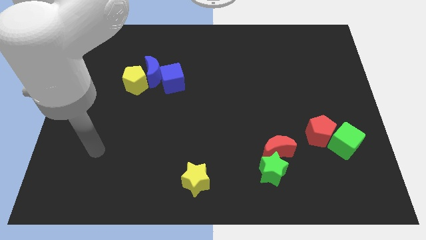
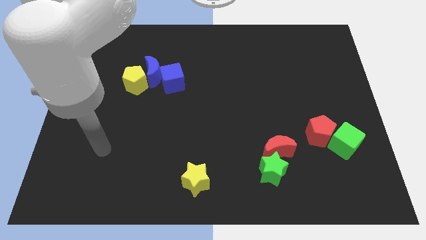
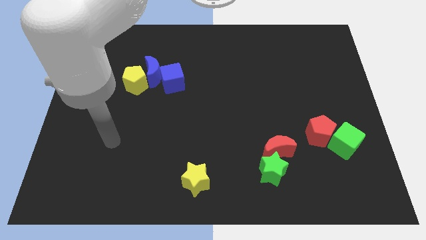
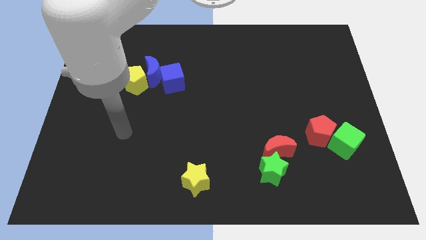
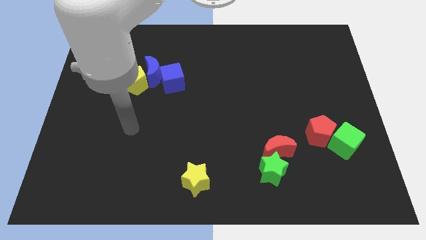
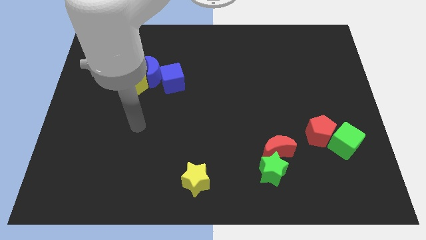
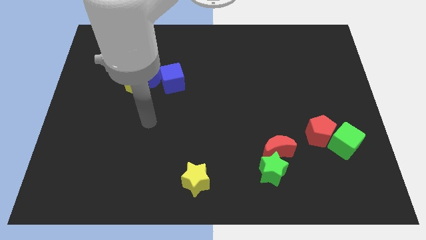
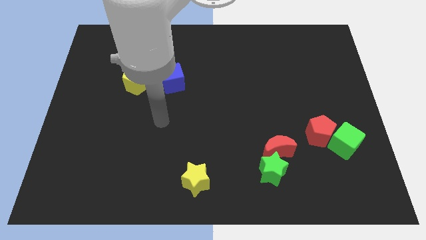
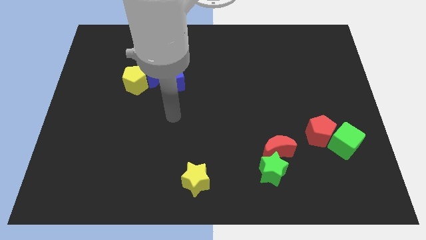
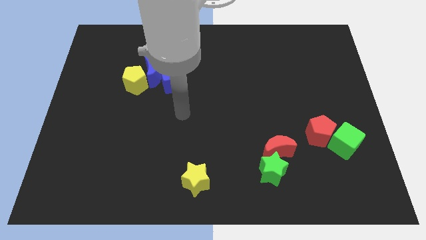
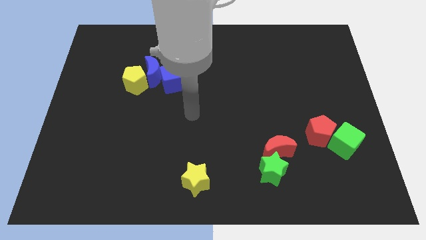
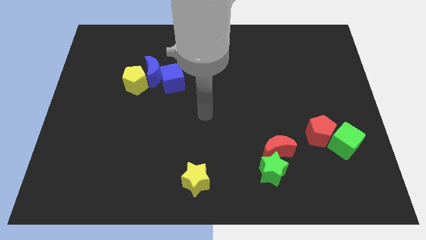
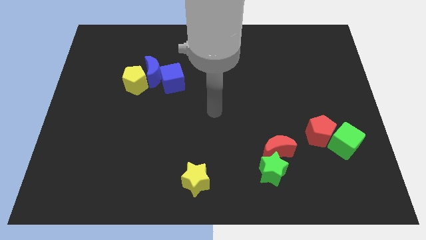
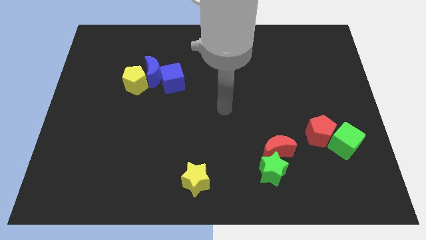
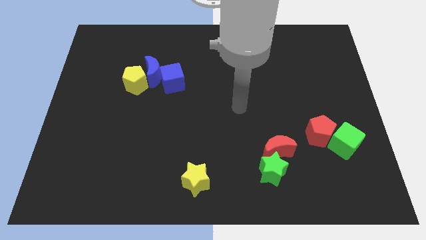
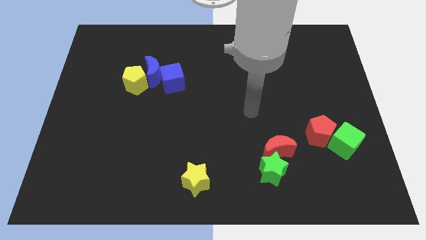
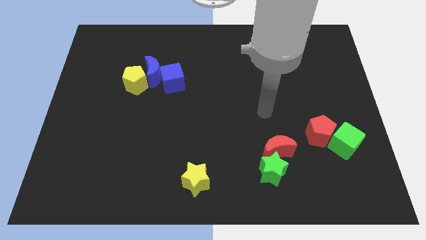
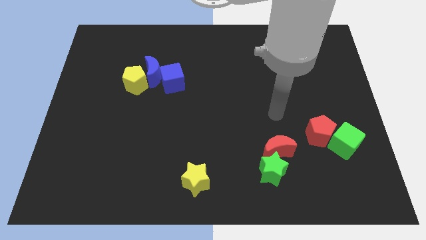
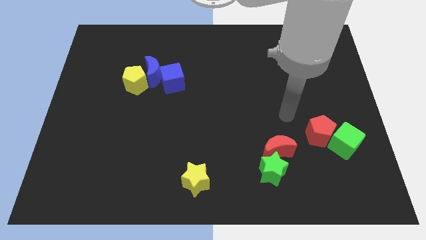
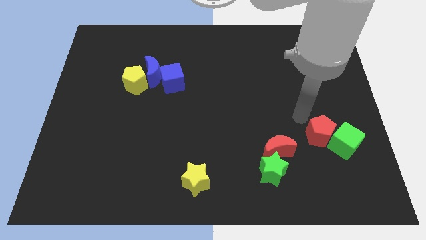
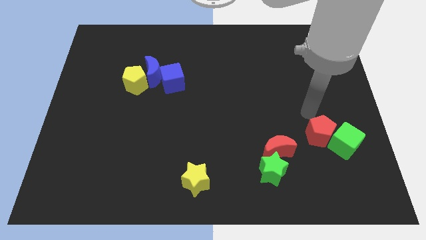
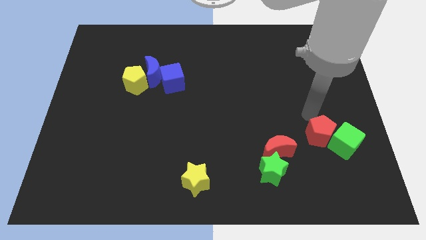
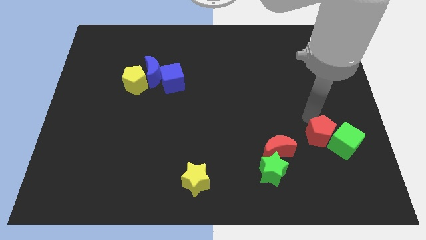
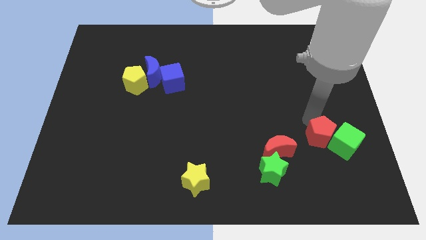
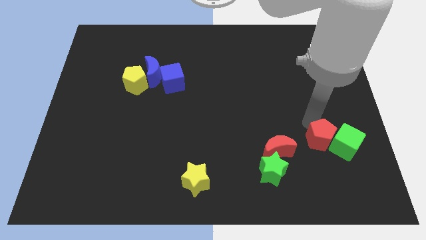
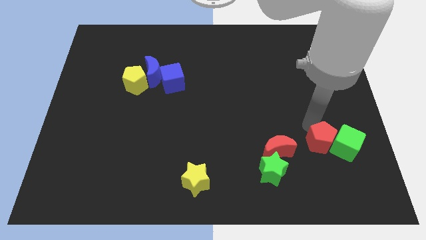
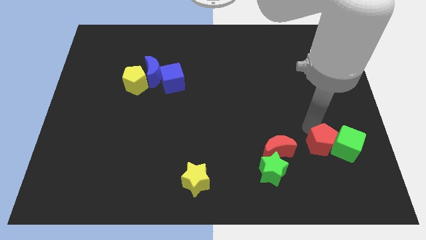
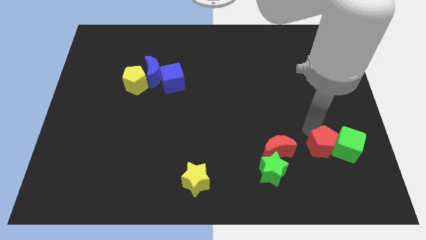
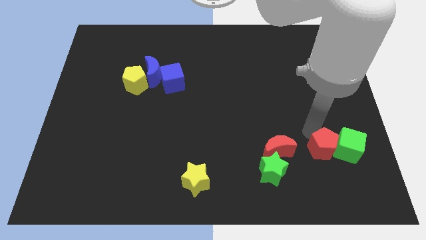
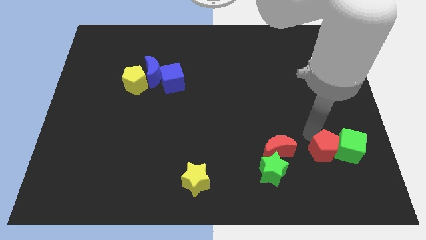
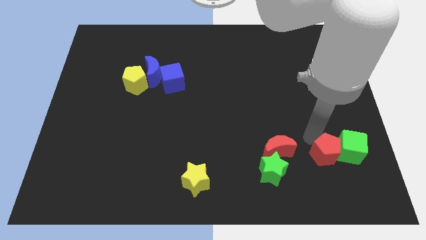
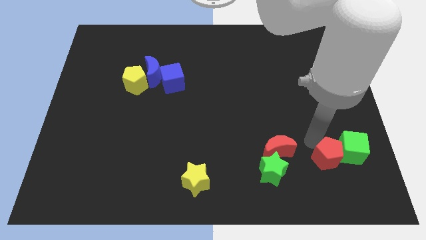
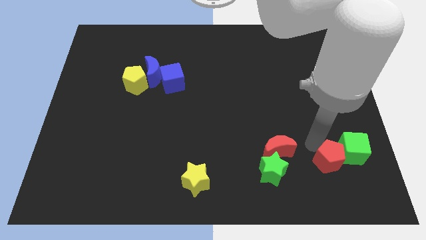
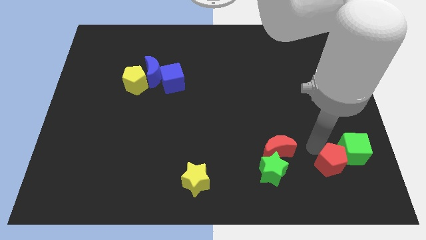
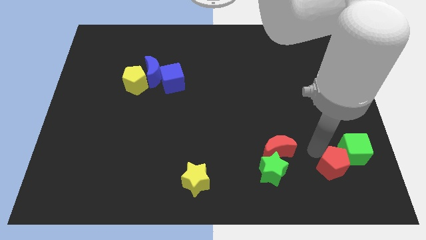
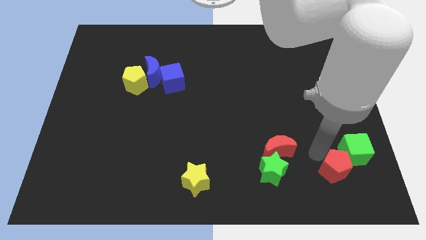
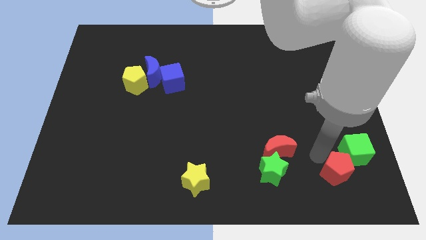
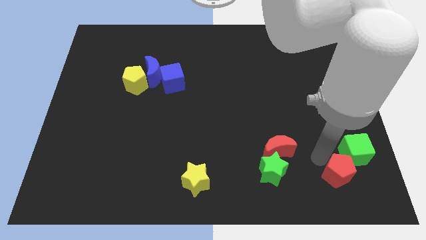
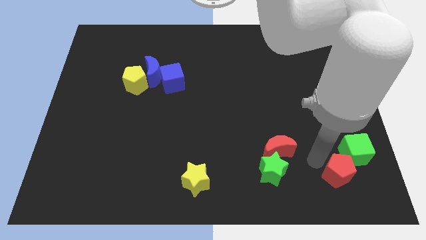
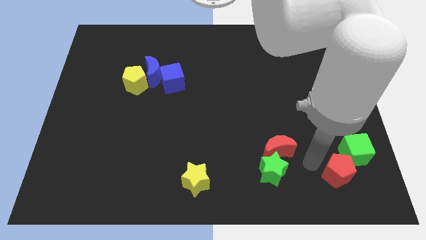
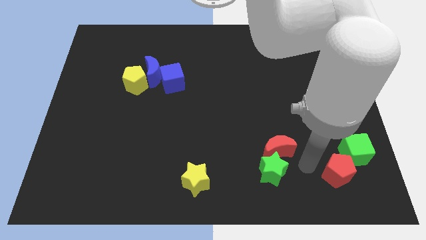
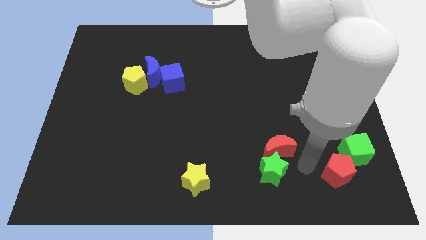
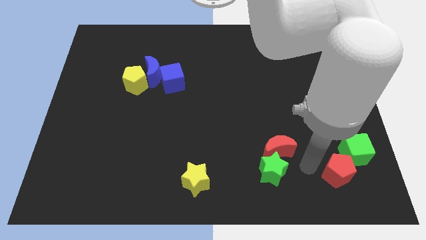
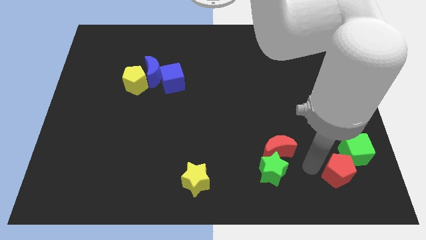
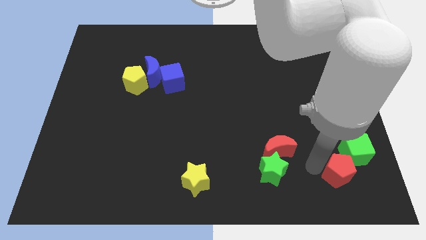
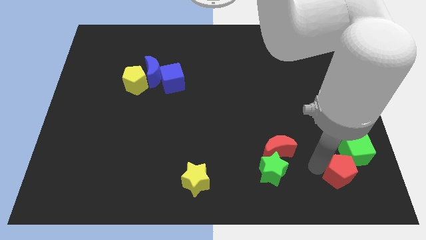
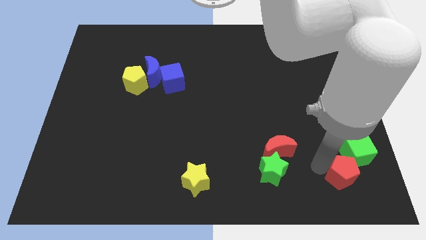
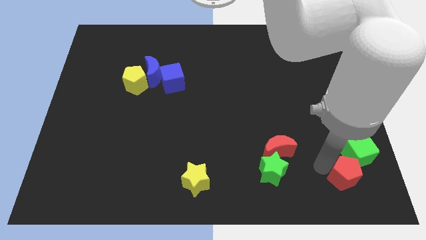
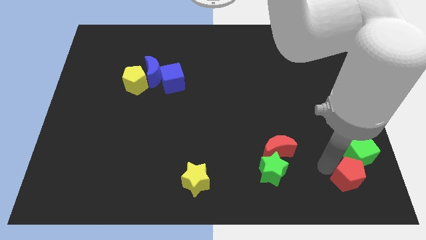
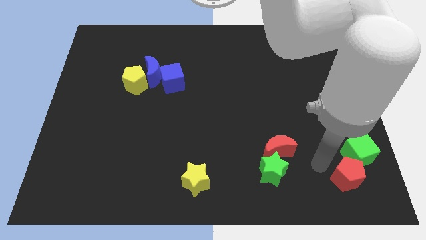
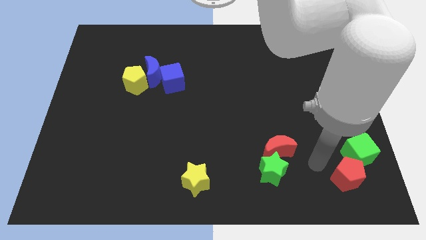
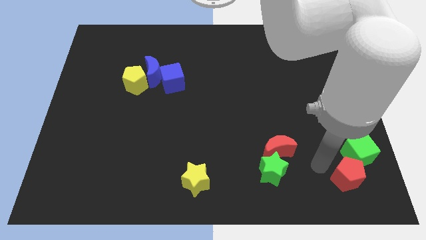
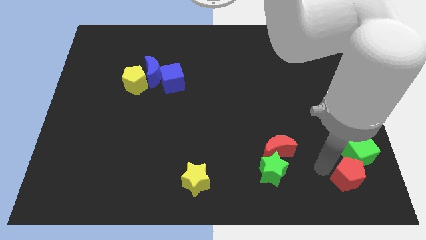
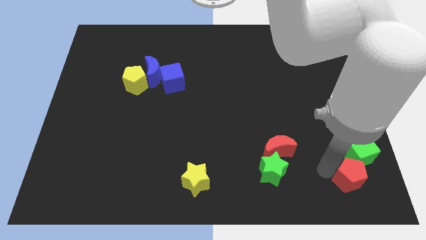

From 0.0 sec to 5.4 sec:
slide the red pentagon to the bottom right of the board

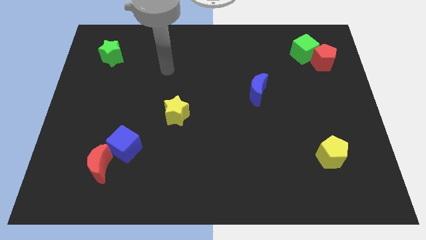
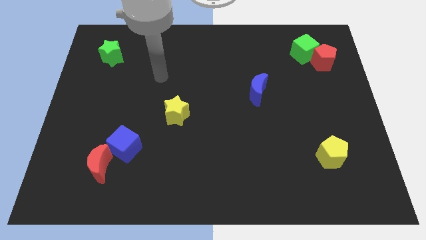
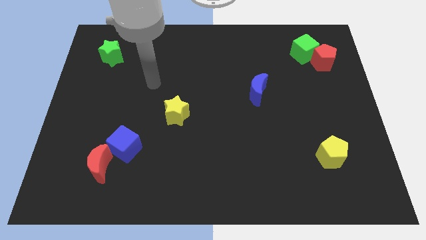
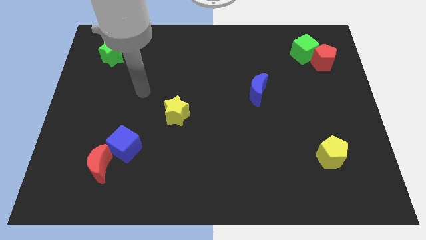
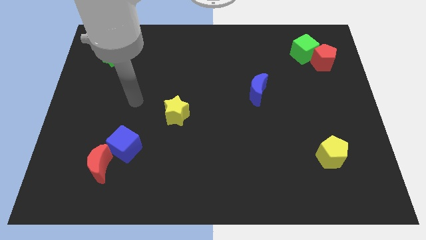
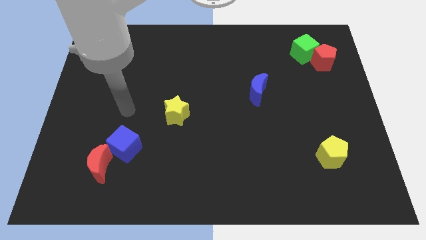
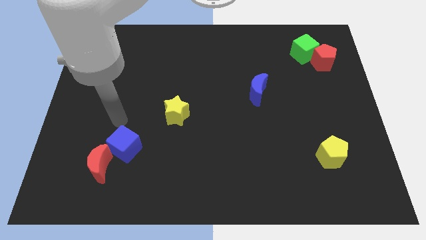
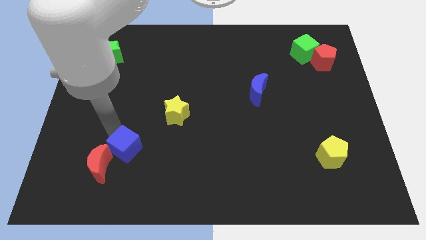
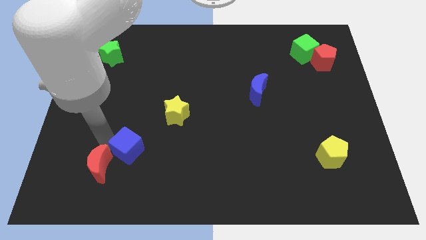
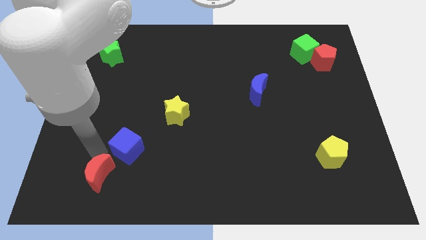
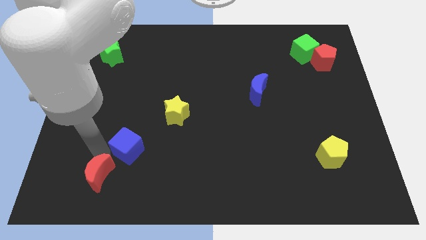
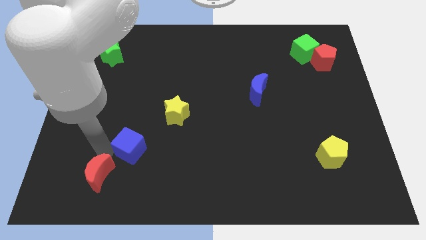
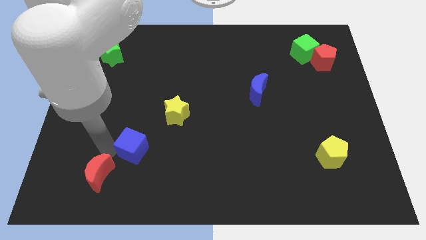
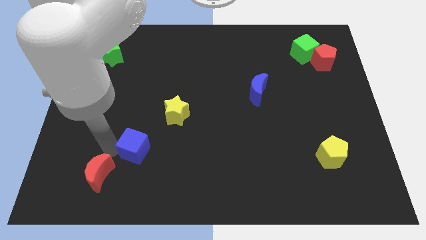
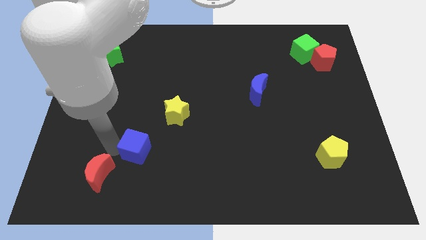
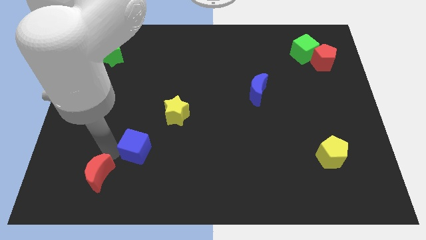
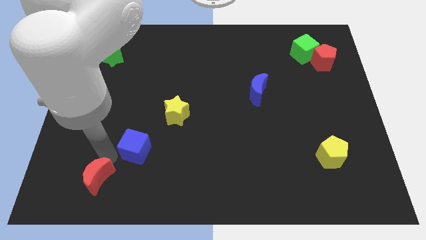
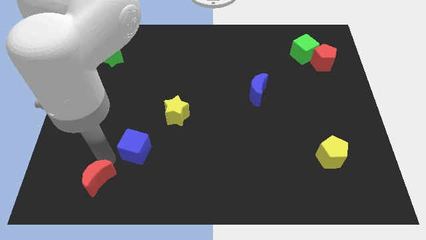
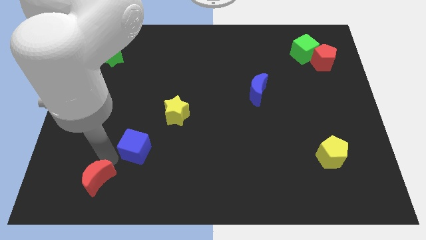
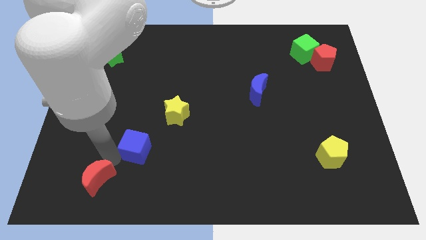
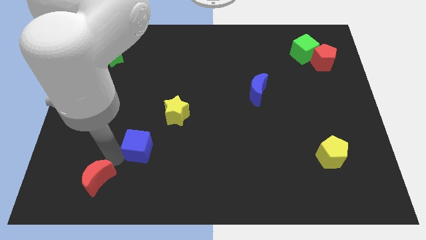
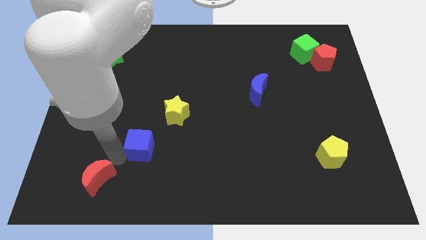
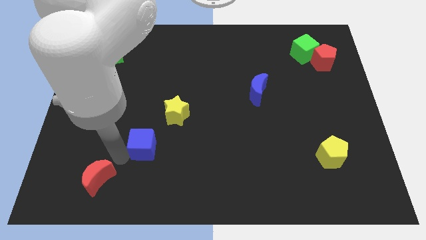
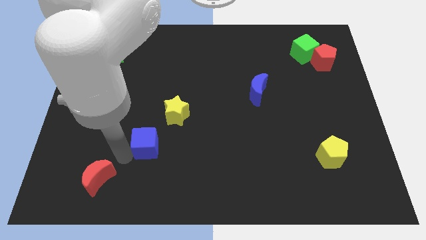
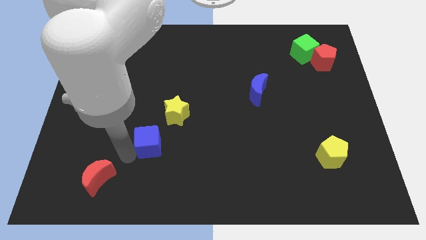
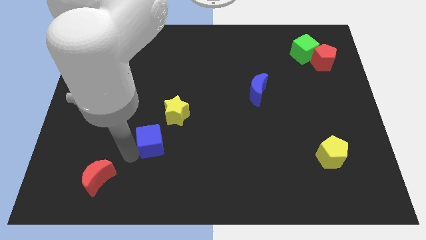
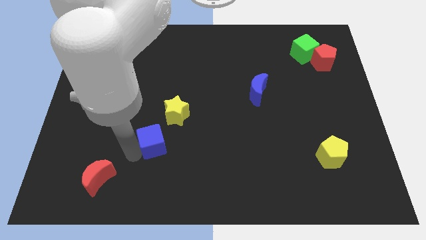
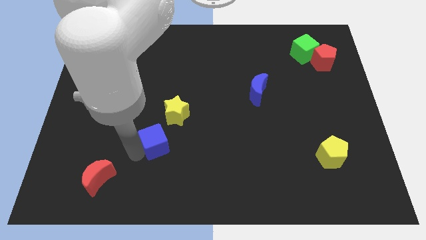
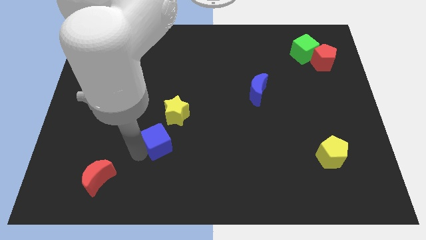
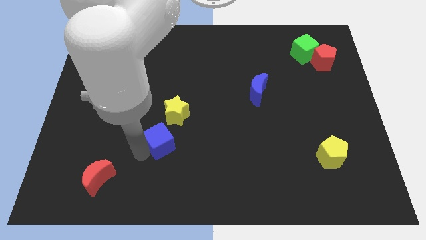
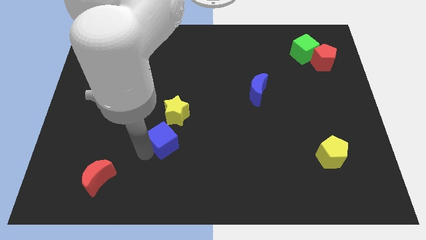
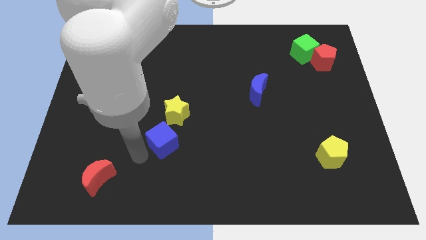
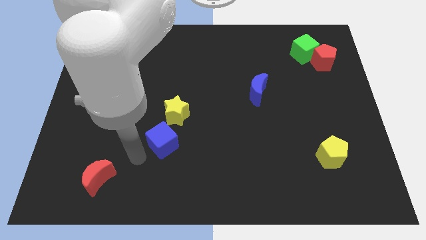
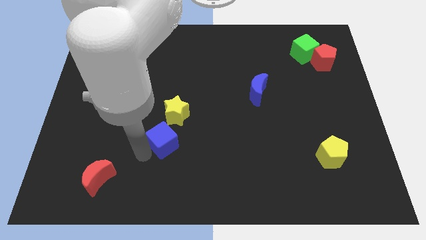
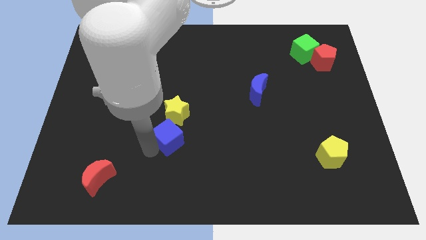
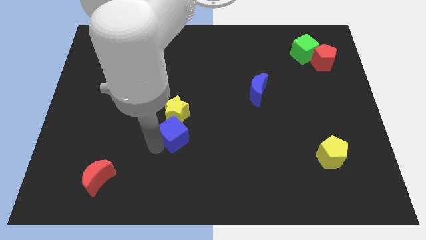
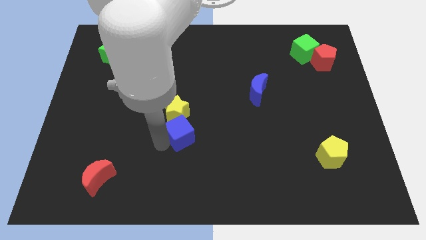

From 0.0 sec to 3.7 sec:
put the blue cube to the center
